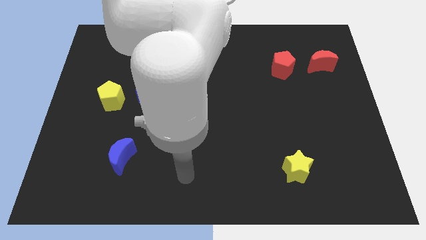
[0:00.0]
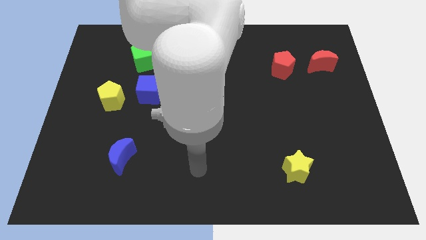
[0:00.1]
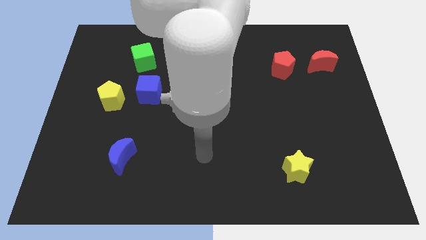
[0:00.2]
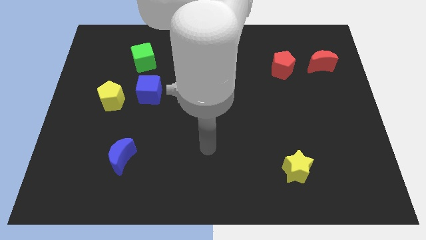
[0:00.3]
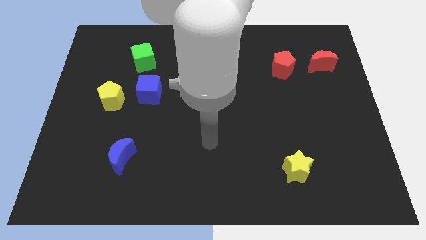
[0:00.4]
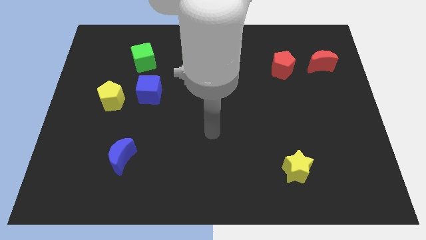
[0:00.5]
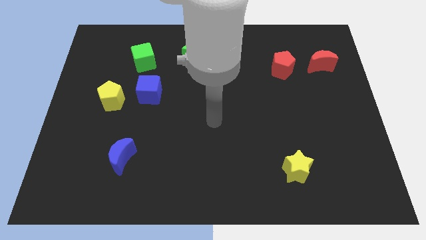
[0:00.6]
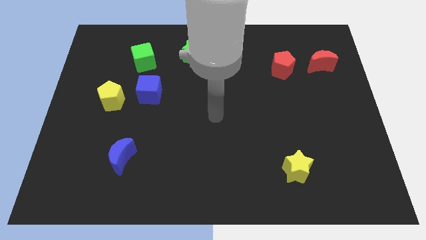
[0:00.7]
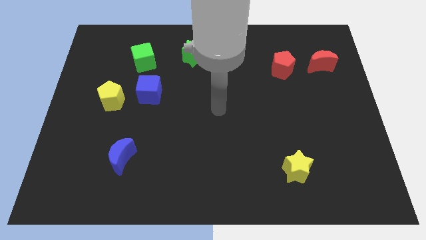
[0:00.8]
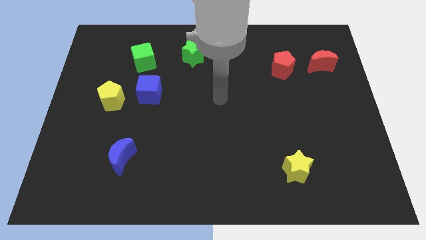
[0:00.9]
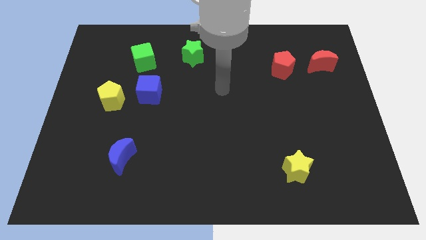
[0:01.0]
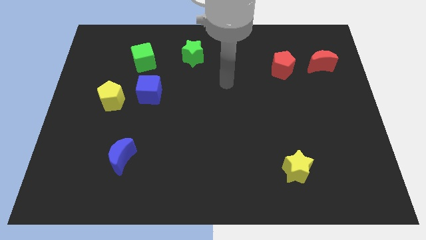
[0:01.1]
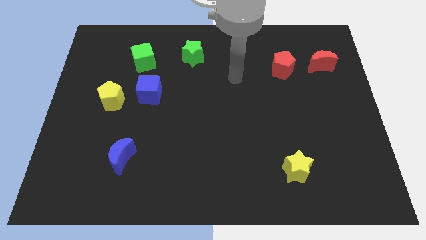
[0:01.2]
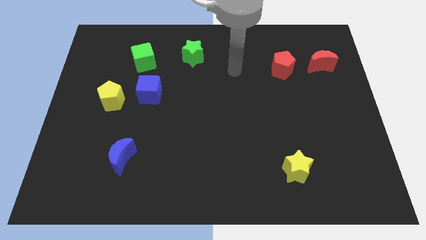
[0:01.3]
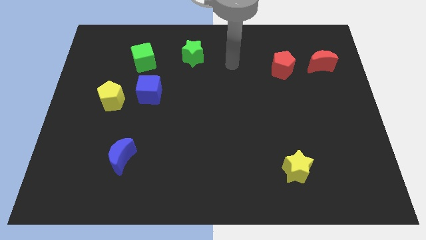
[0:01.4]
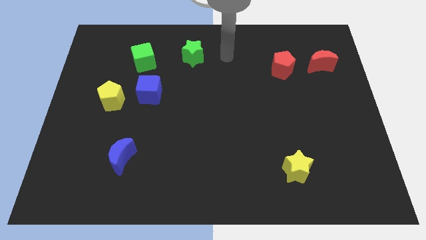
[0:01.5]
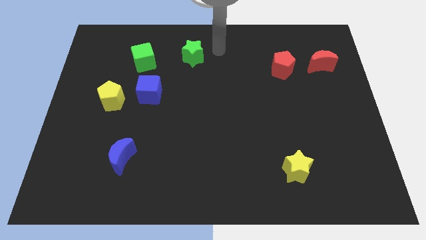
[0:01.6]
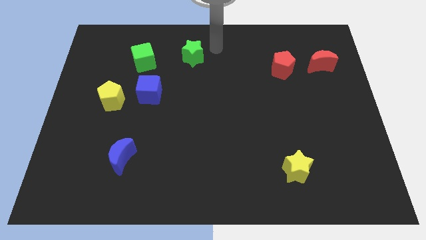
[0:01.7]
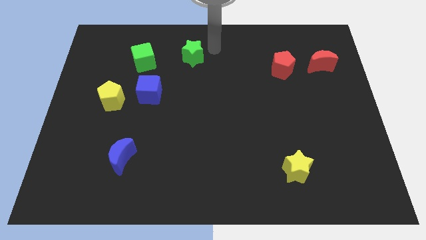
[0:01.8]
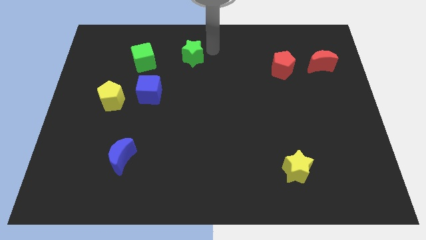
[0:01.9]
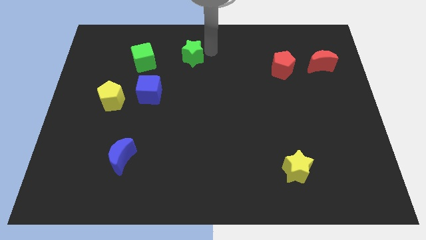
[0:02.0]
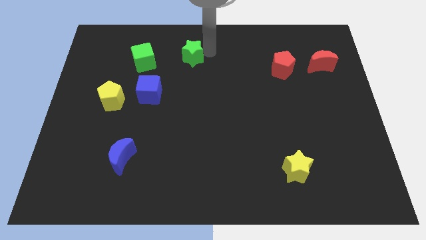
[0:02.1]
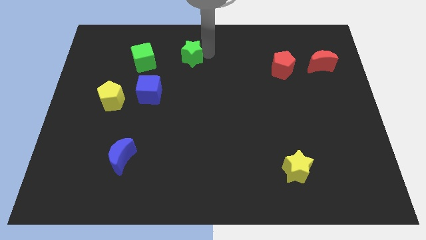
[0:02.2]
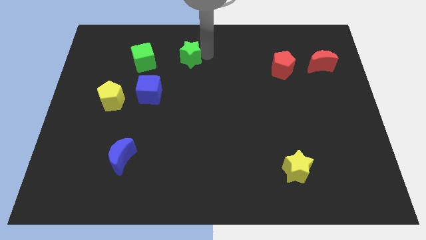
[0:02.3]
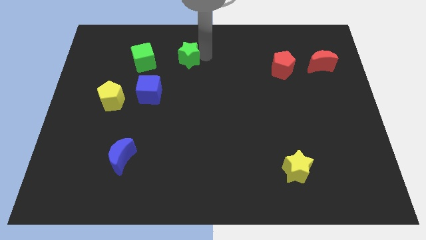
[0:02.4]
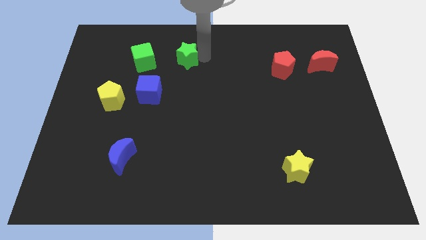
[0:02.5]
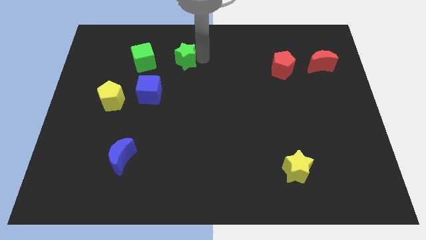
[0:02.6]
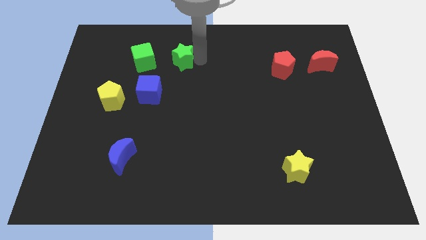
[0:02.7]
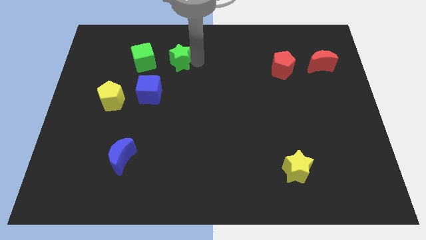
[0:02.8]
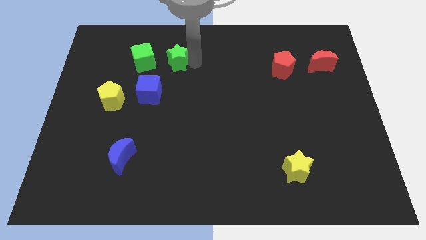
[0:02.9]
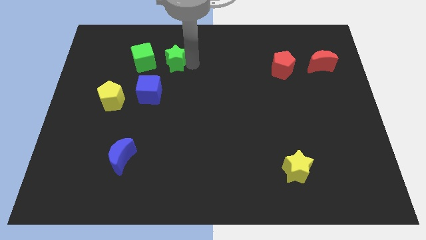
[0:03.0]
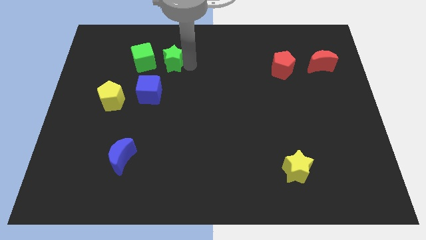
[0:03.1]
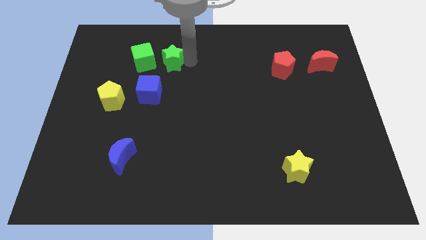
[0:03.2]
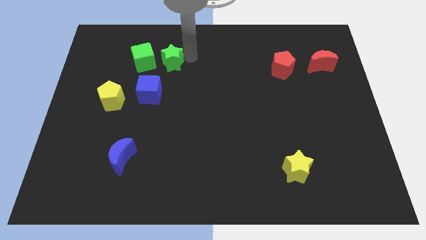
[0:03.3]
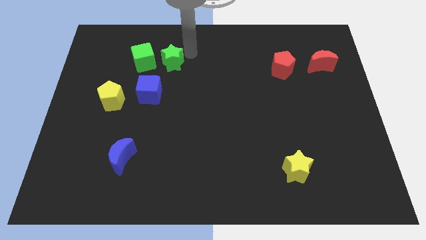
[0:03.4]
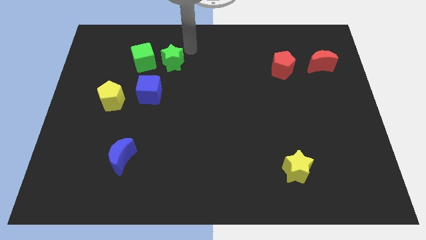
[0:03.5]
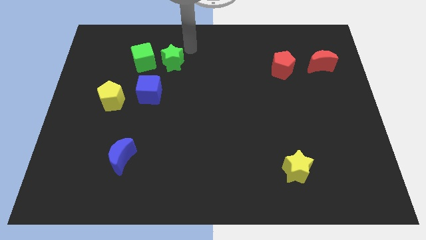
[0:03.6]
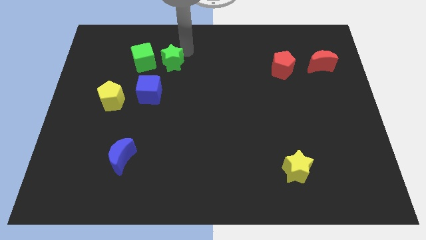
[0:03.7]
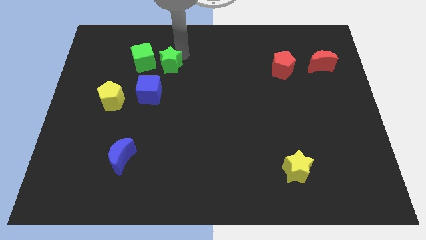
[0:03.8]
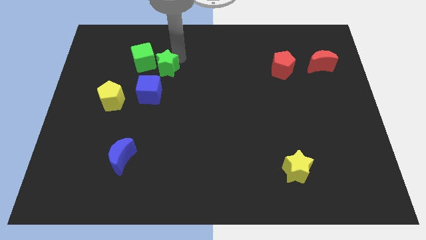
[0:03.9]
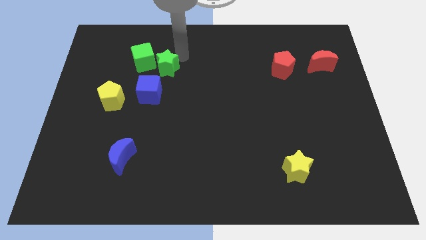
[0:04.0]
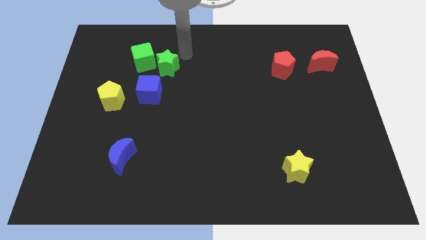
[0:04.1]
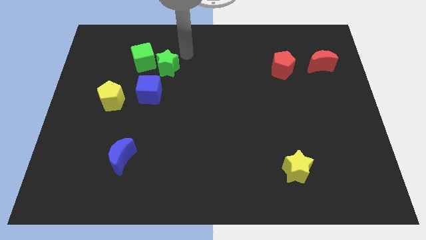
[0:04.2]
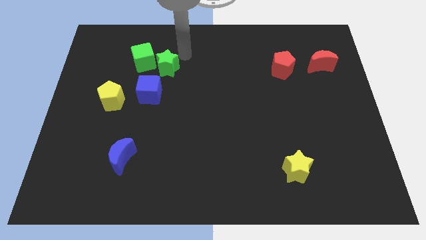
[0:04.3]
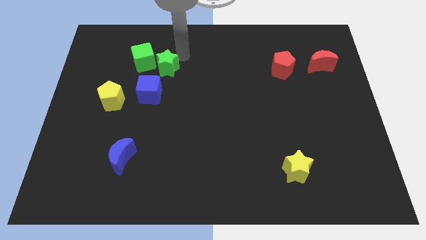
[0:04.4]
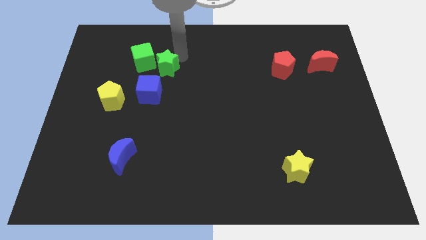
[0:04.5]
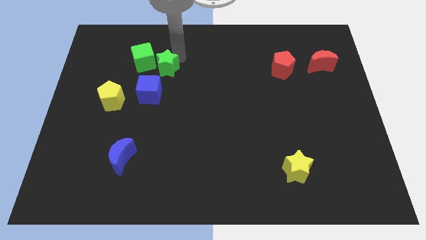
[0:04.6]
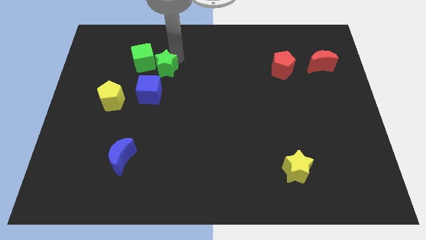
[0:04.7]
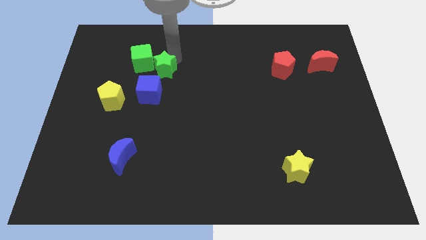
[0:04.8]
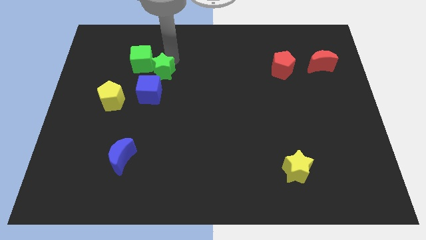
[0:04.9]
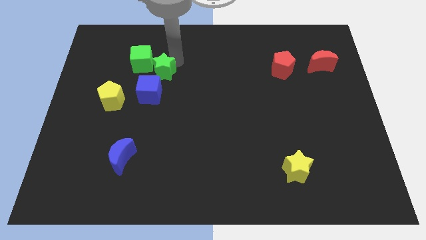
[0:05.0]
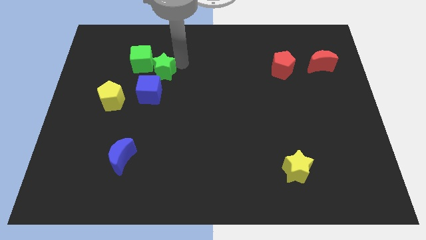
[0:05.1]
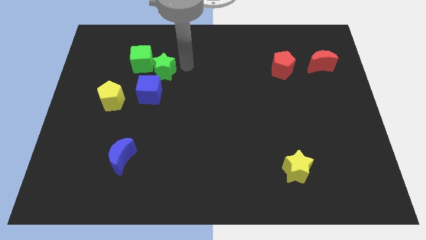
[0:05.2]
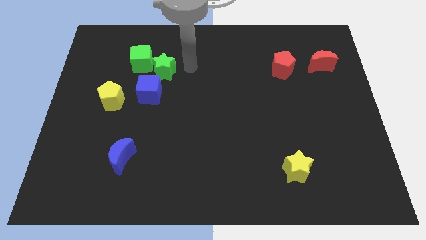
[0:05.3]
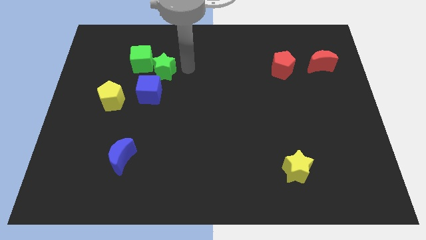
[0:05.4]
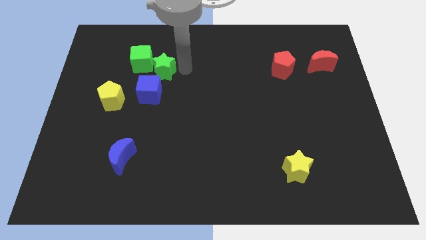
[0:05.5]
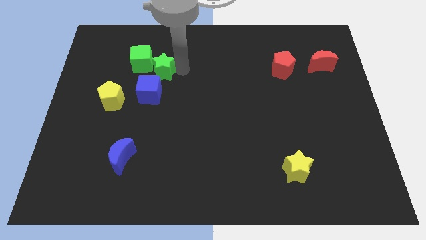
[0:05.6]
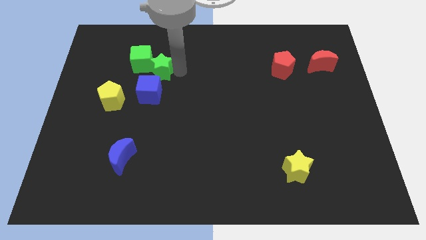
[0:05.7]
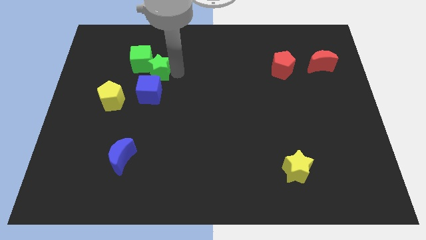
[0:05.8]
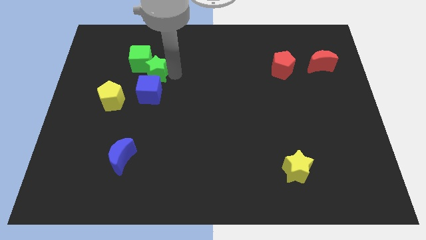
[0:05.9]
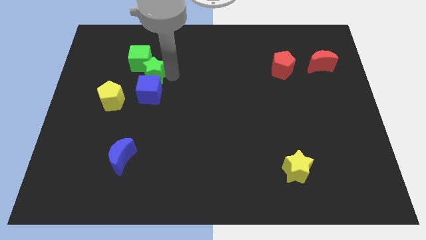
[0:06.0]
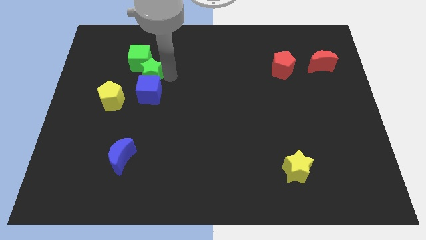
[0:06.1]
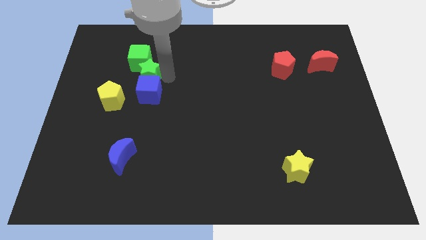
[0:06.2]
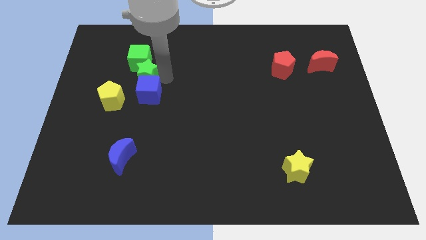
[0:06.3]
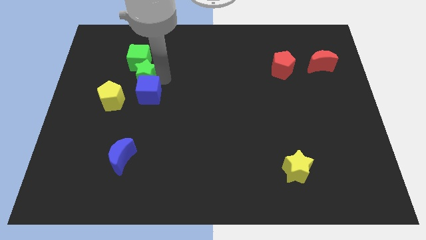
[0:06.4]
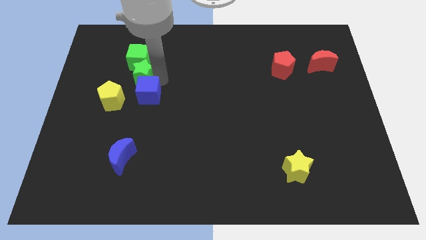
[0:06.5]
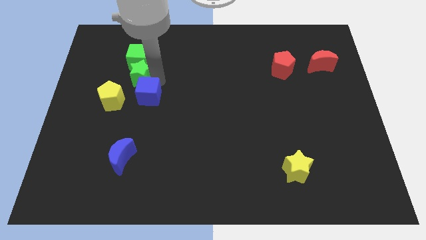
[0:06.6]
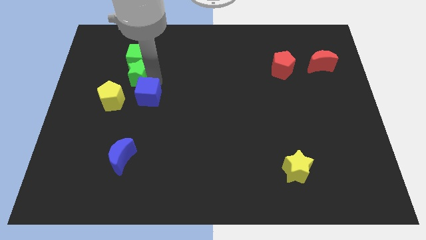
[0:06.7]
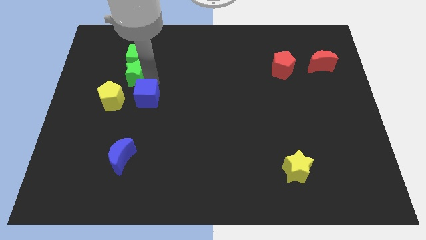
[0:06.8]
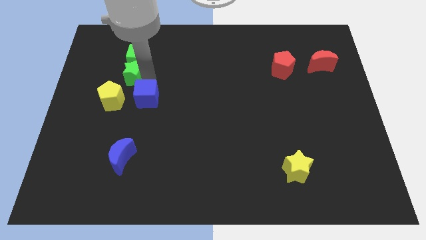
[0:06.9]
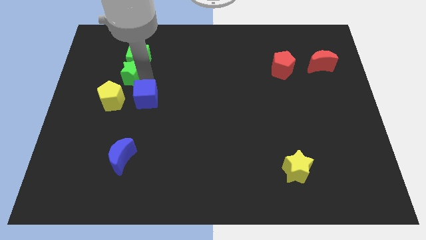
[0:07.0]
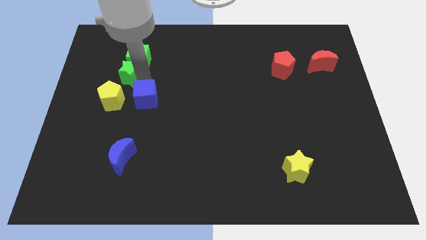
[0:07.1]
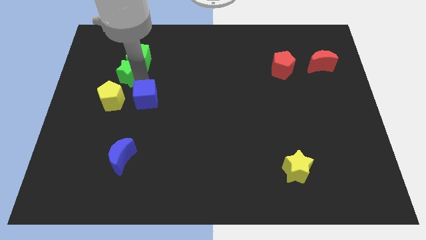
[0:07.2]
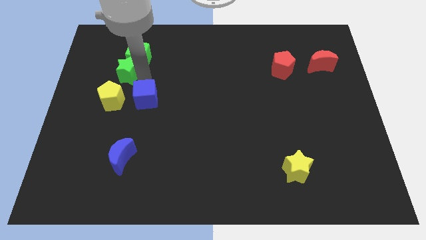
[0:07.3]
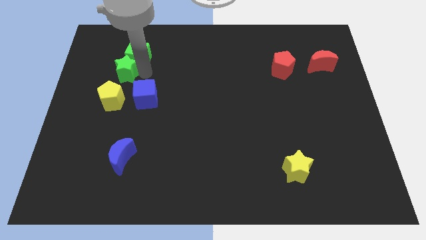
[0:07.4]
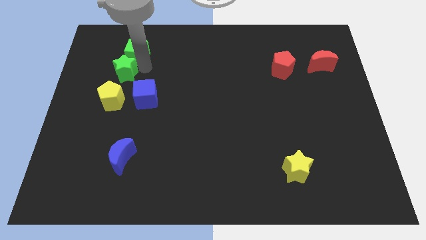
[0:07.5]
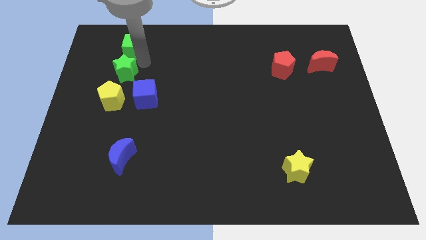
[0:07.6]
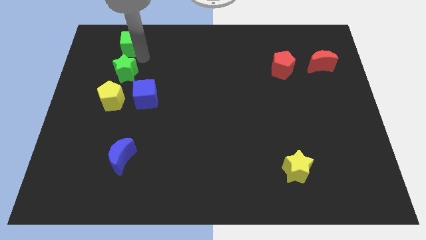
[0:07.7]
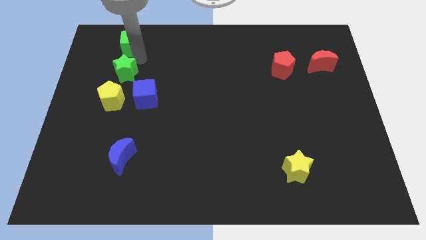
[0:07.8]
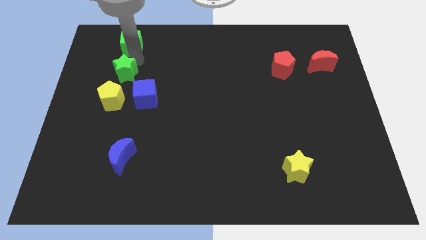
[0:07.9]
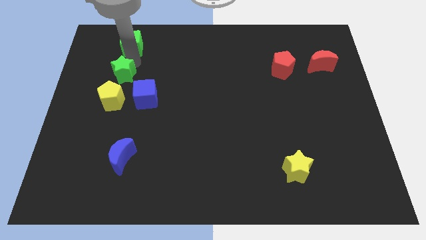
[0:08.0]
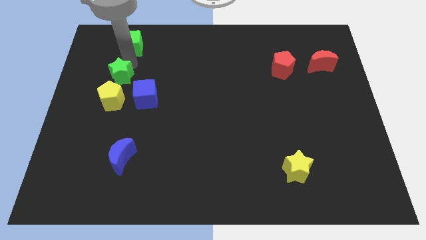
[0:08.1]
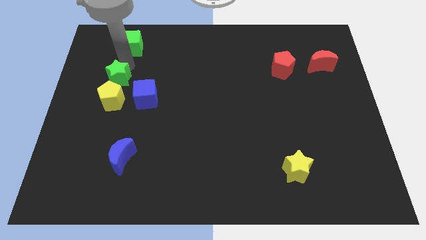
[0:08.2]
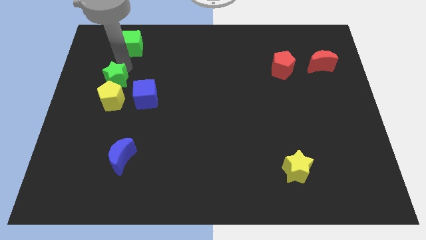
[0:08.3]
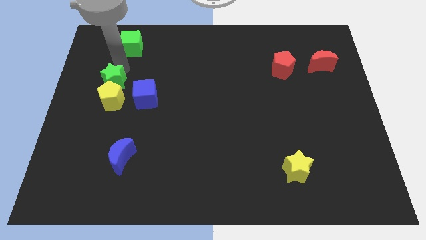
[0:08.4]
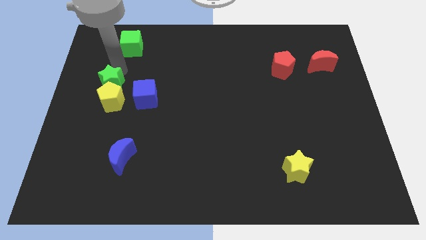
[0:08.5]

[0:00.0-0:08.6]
put the green star to the left of the blue cube
